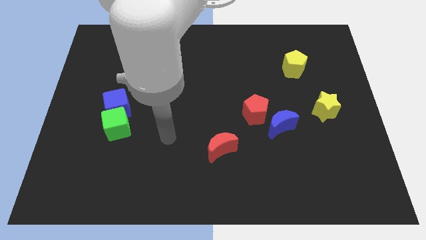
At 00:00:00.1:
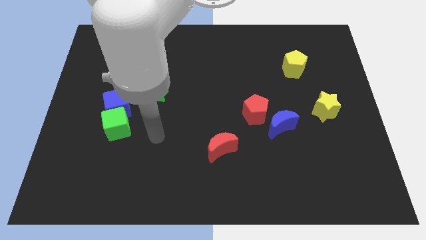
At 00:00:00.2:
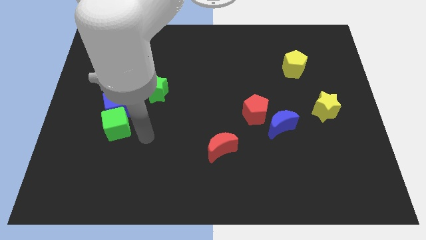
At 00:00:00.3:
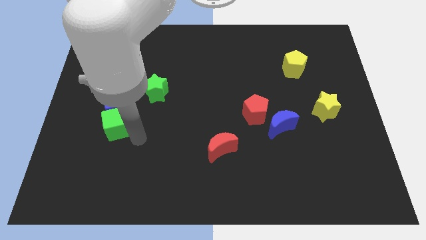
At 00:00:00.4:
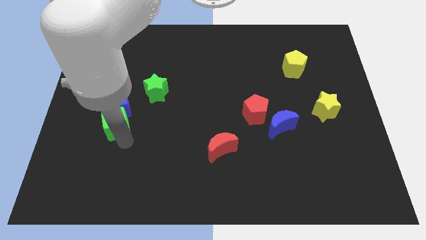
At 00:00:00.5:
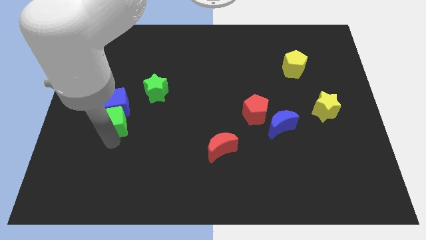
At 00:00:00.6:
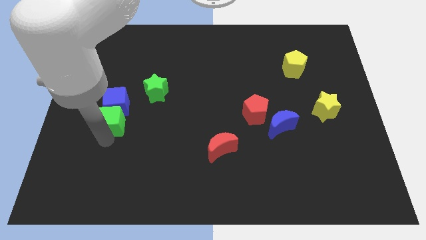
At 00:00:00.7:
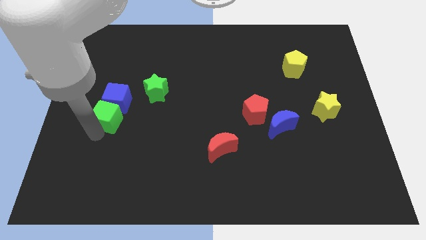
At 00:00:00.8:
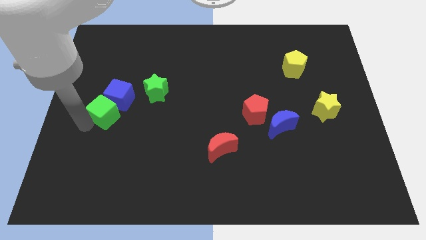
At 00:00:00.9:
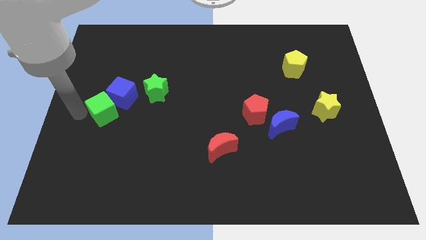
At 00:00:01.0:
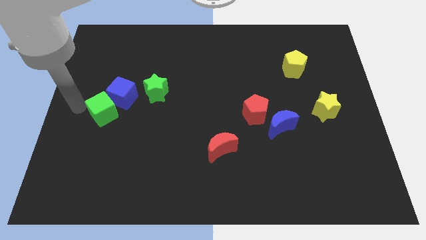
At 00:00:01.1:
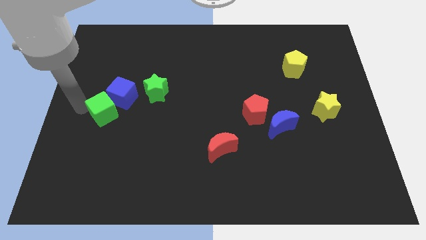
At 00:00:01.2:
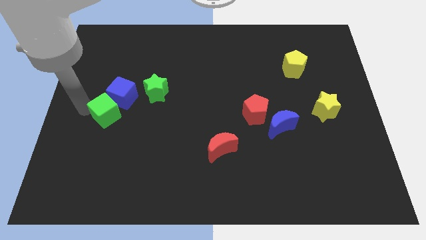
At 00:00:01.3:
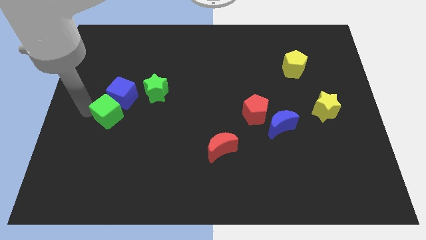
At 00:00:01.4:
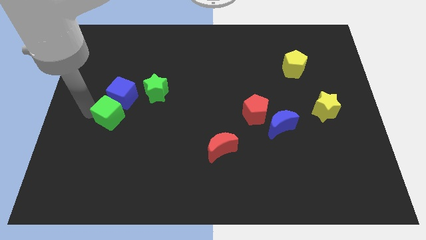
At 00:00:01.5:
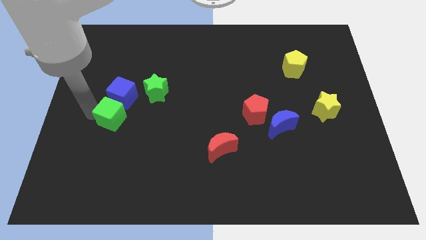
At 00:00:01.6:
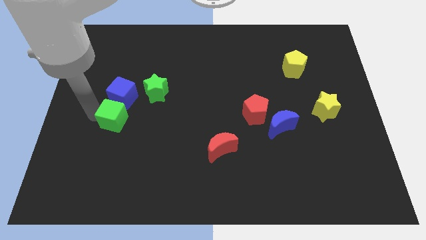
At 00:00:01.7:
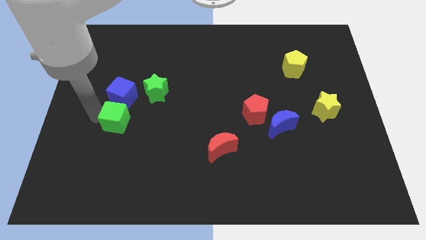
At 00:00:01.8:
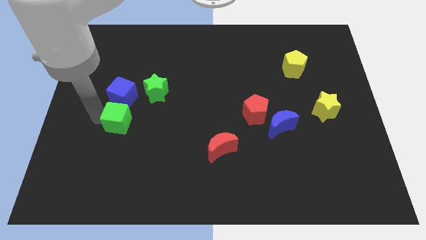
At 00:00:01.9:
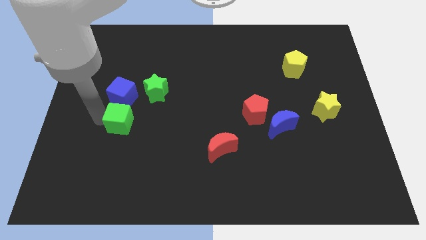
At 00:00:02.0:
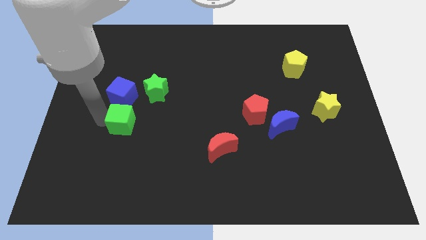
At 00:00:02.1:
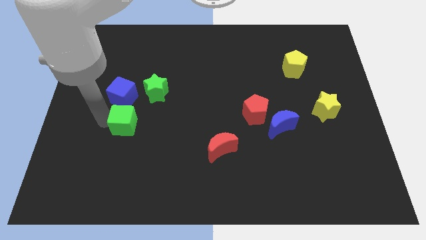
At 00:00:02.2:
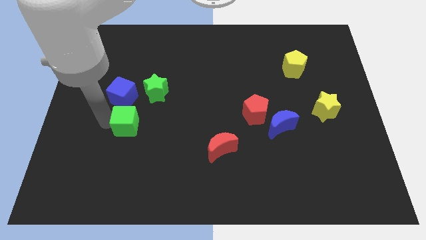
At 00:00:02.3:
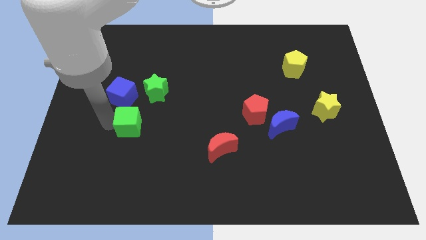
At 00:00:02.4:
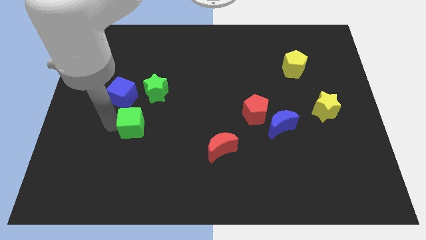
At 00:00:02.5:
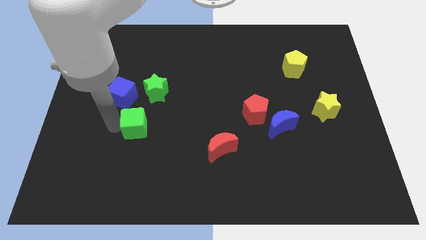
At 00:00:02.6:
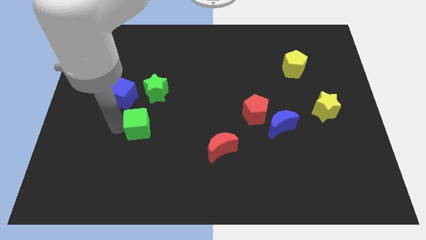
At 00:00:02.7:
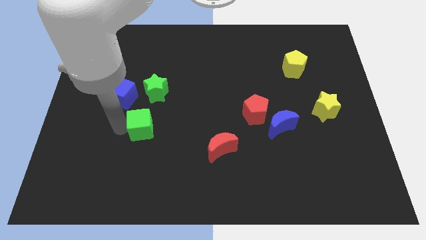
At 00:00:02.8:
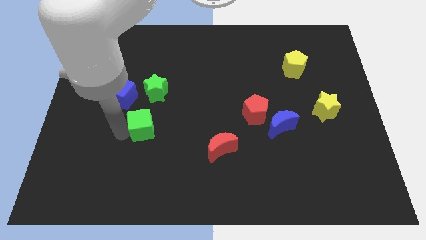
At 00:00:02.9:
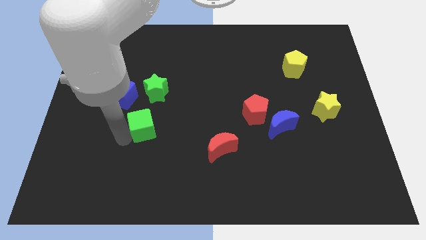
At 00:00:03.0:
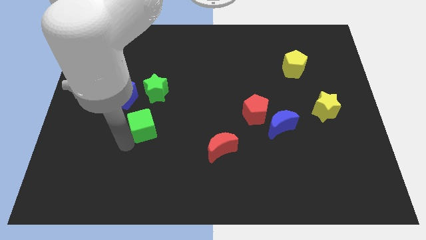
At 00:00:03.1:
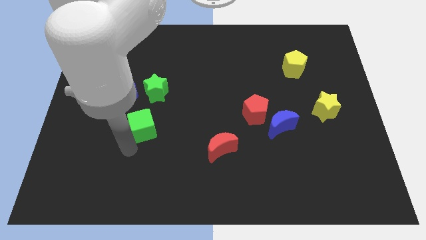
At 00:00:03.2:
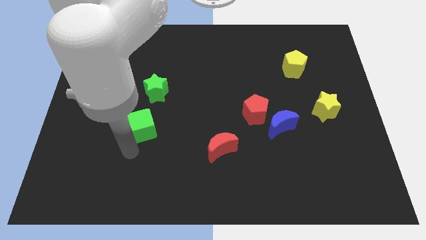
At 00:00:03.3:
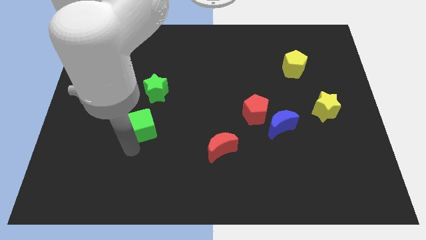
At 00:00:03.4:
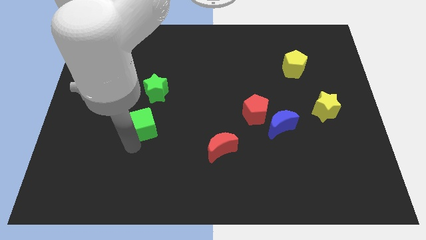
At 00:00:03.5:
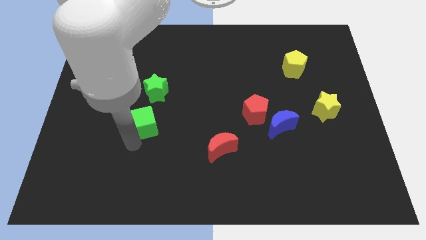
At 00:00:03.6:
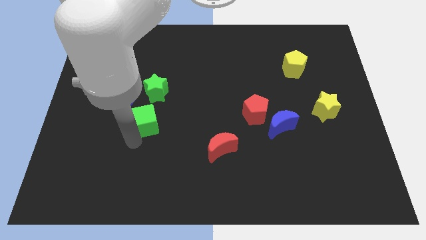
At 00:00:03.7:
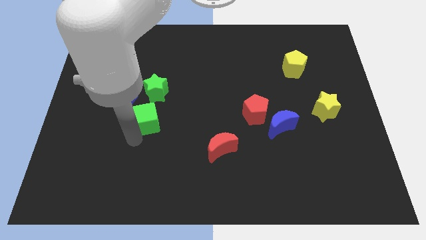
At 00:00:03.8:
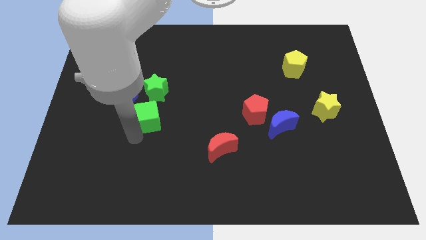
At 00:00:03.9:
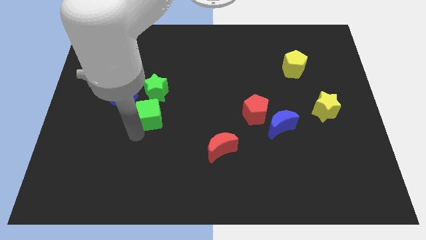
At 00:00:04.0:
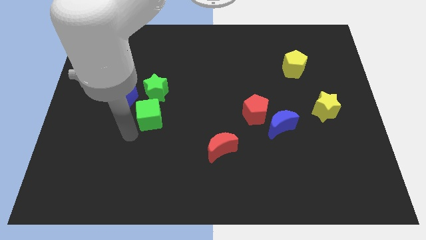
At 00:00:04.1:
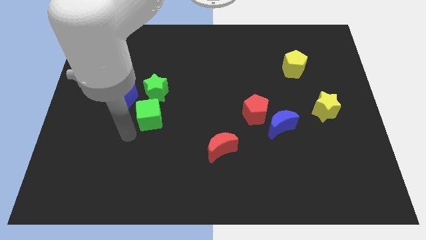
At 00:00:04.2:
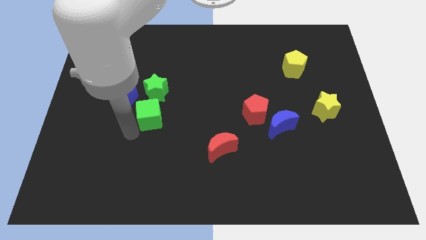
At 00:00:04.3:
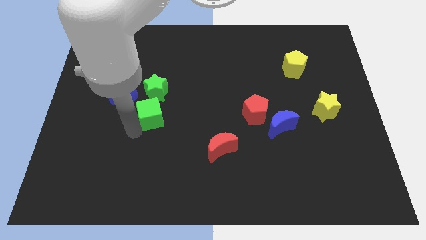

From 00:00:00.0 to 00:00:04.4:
slide the green cube a little up and then to the right

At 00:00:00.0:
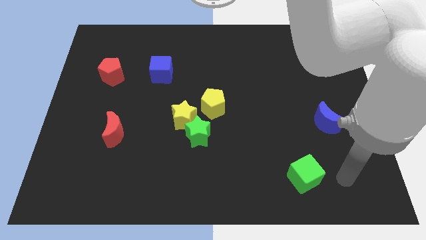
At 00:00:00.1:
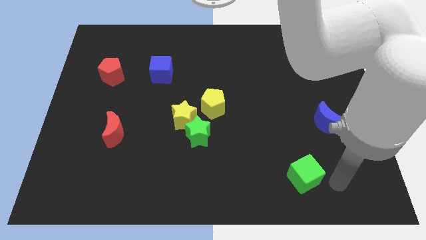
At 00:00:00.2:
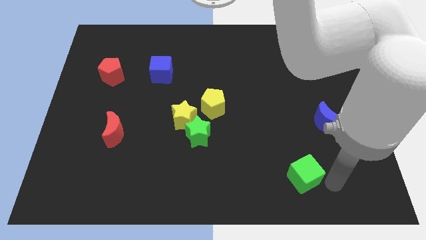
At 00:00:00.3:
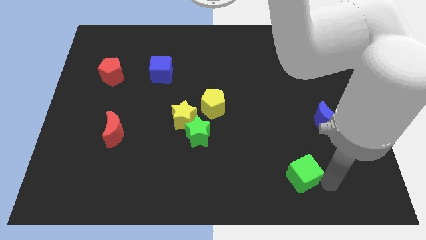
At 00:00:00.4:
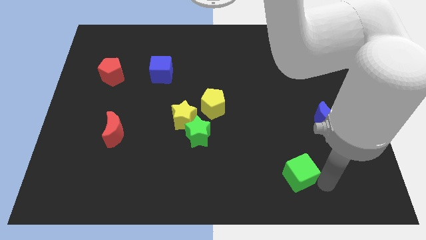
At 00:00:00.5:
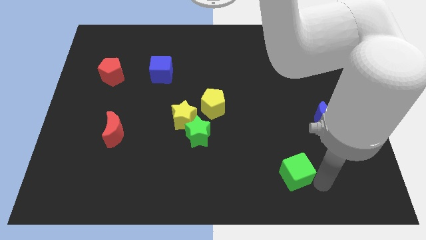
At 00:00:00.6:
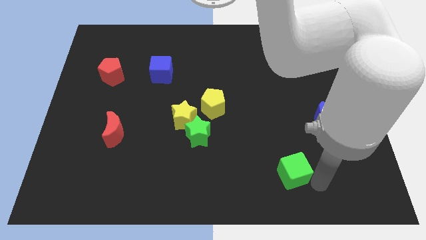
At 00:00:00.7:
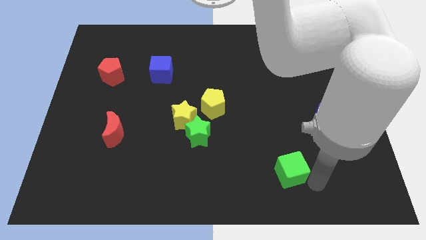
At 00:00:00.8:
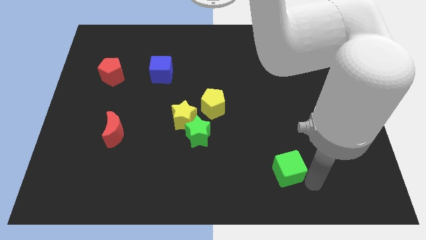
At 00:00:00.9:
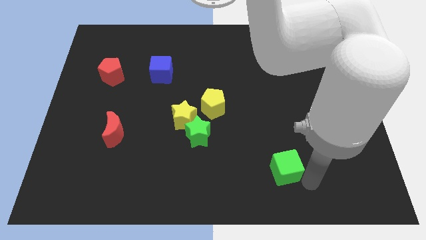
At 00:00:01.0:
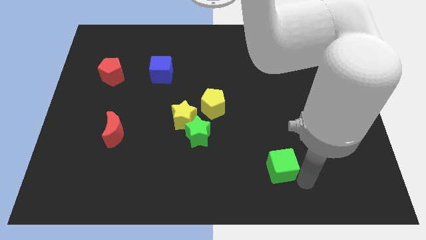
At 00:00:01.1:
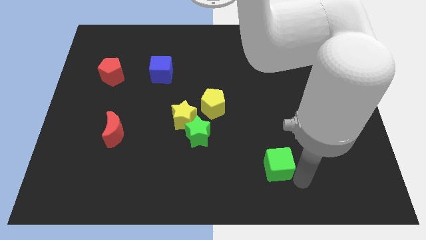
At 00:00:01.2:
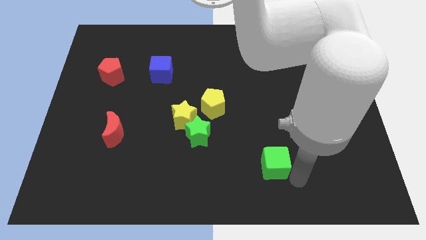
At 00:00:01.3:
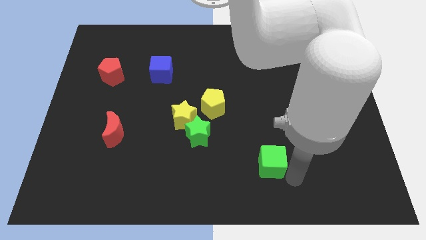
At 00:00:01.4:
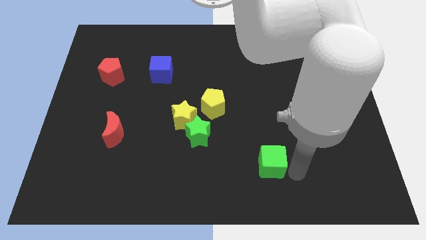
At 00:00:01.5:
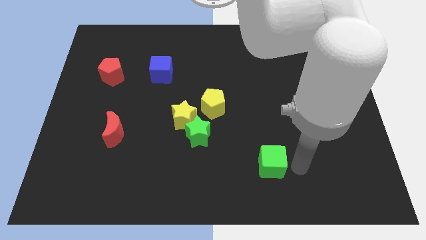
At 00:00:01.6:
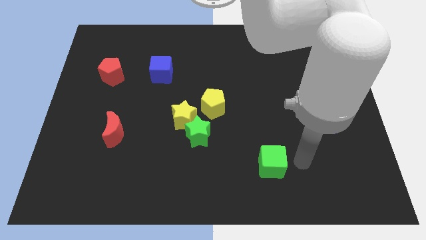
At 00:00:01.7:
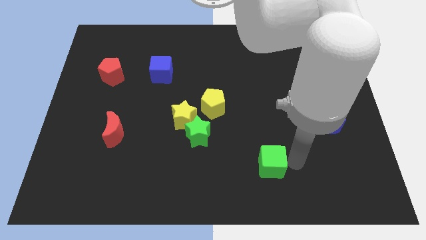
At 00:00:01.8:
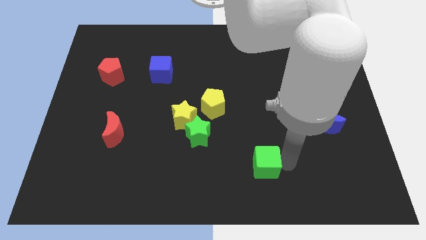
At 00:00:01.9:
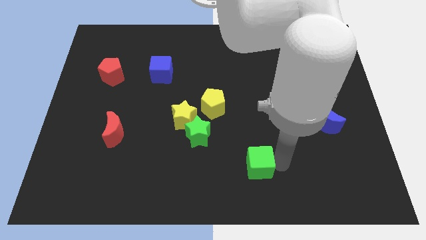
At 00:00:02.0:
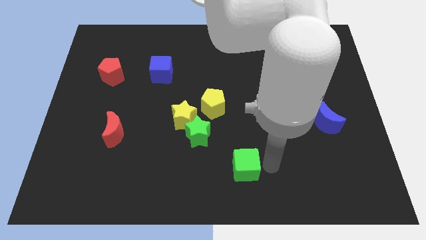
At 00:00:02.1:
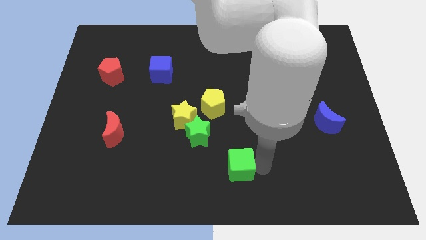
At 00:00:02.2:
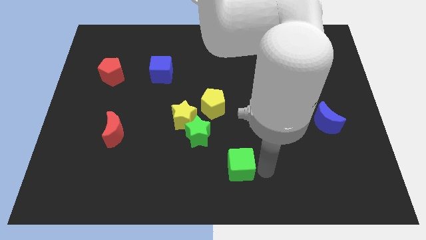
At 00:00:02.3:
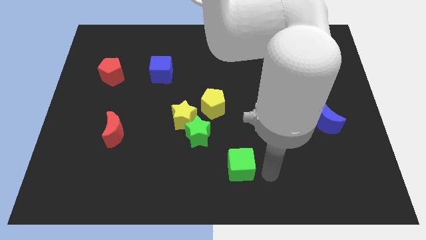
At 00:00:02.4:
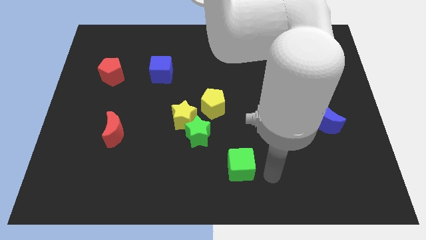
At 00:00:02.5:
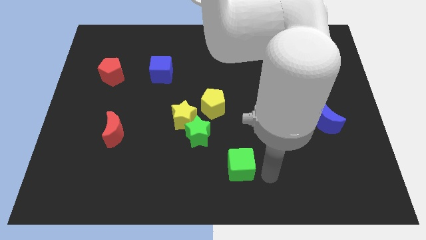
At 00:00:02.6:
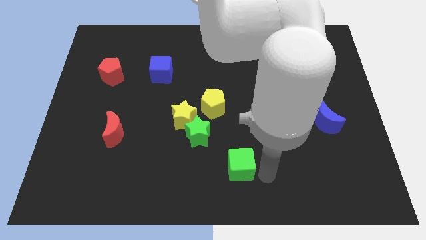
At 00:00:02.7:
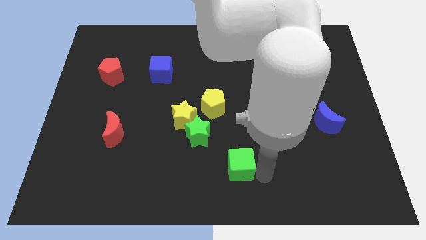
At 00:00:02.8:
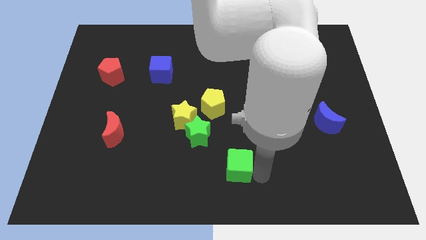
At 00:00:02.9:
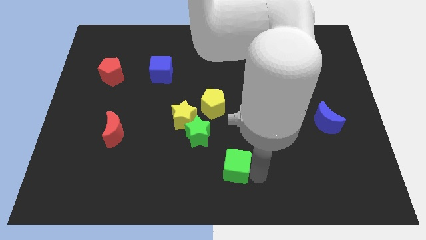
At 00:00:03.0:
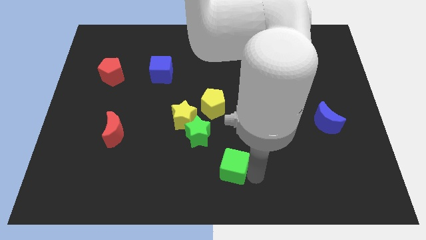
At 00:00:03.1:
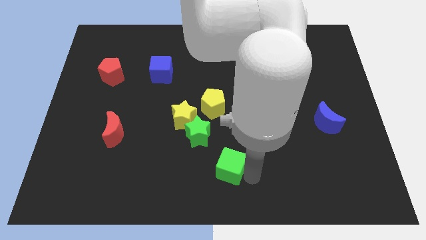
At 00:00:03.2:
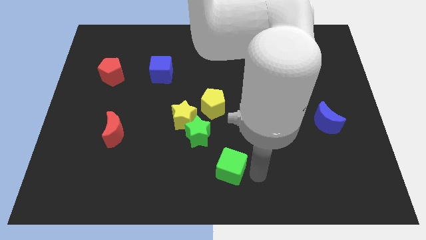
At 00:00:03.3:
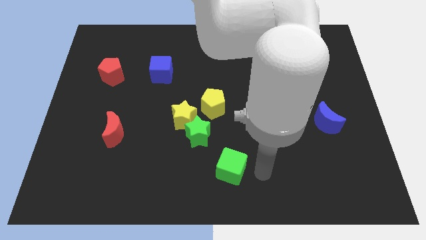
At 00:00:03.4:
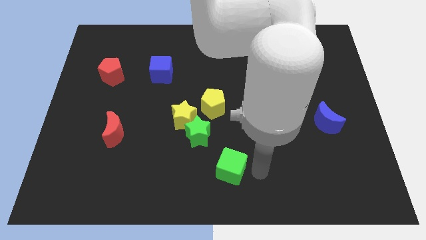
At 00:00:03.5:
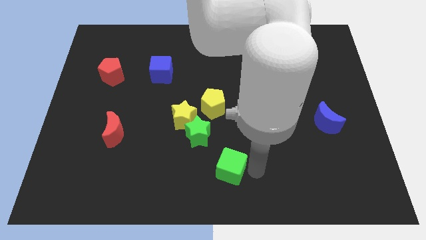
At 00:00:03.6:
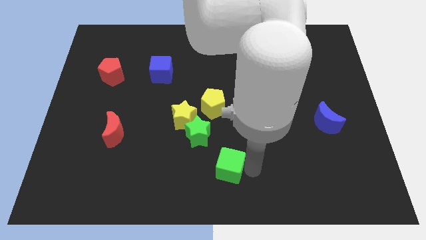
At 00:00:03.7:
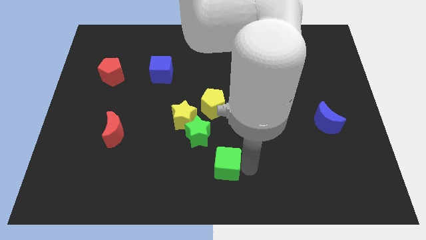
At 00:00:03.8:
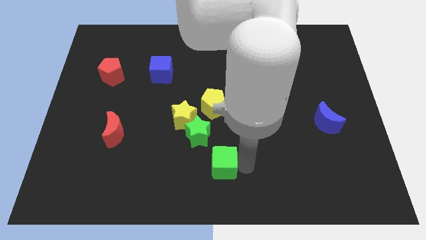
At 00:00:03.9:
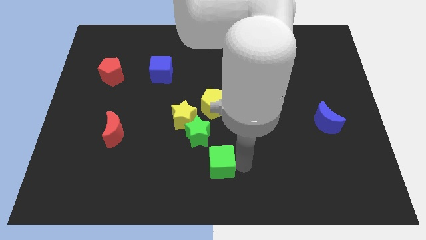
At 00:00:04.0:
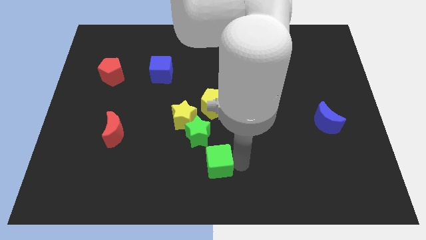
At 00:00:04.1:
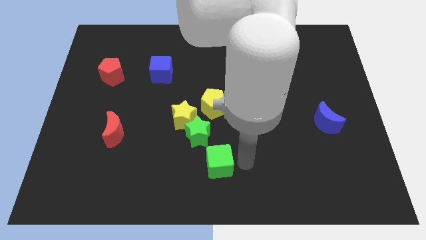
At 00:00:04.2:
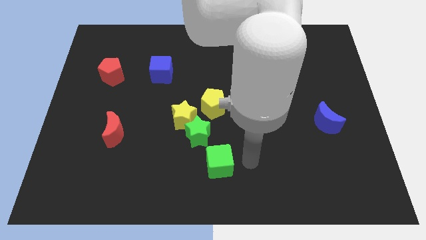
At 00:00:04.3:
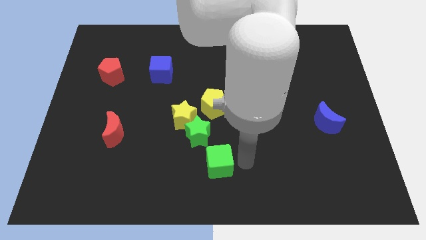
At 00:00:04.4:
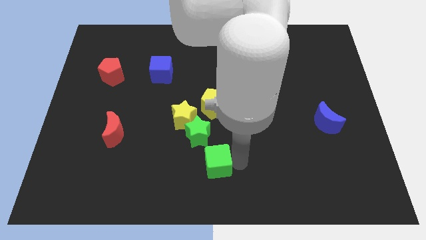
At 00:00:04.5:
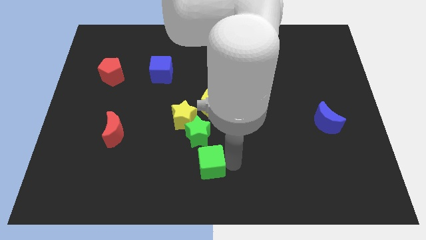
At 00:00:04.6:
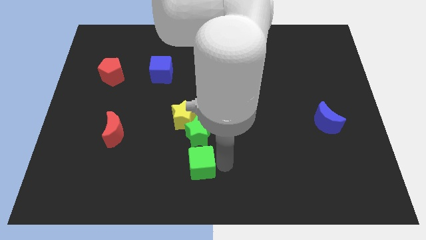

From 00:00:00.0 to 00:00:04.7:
move the green cube to the left
